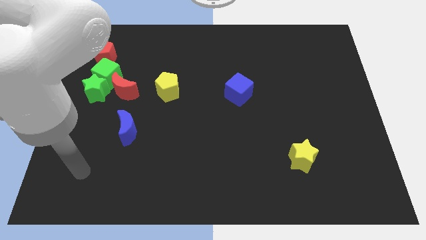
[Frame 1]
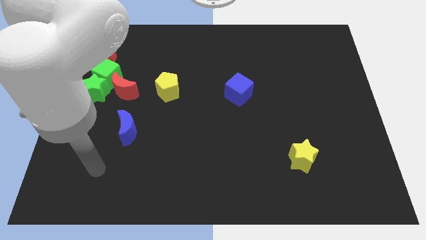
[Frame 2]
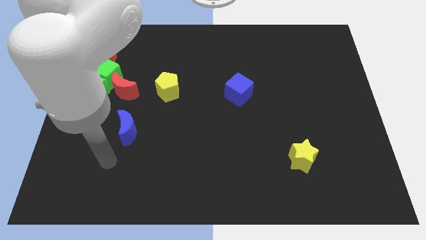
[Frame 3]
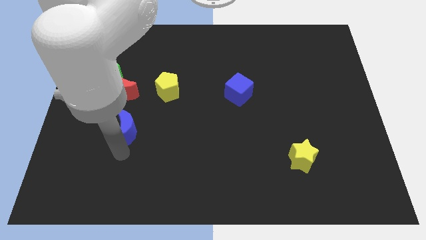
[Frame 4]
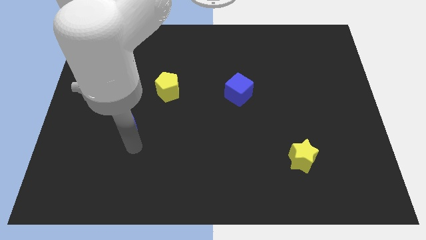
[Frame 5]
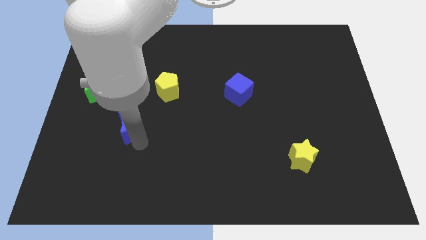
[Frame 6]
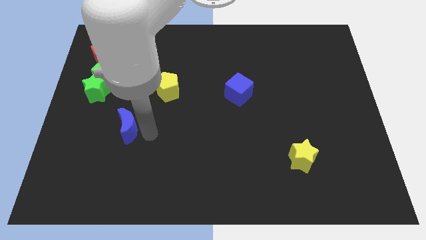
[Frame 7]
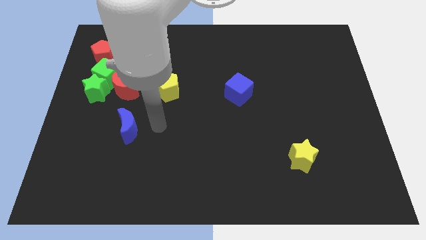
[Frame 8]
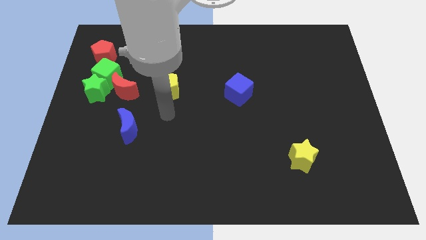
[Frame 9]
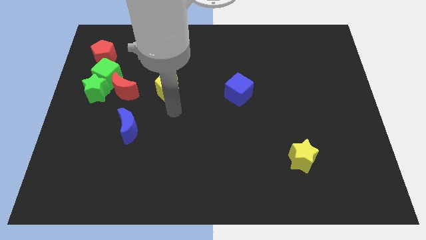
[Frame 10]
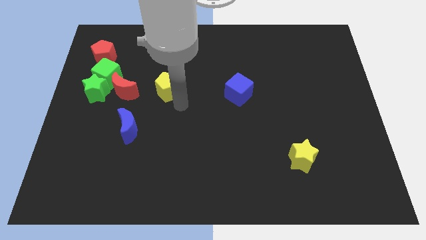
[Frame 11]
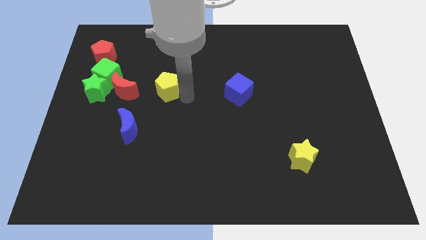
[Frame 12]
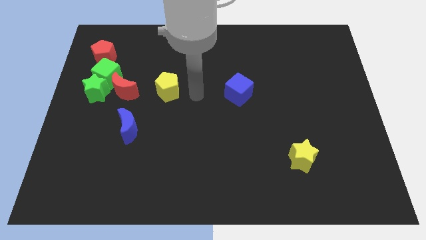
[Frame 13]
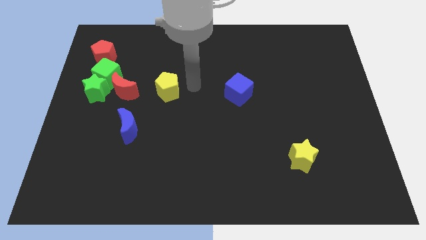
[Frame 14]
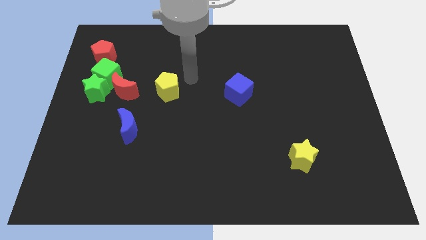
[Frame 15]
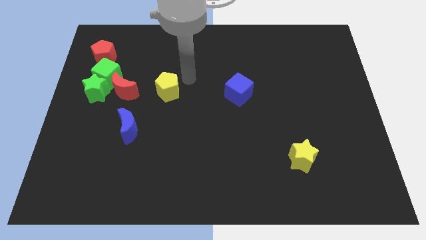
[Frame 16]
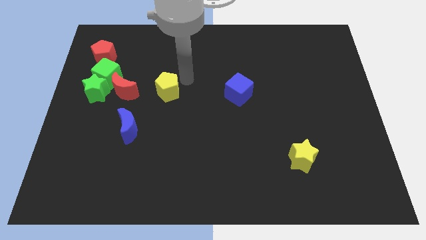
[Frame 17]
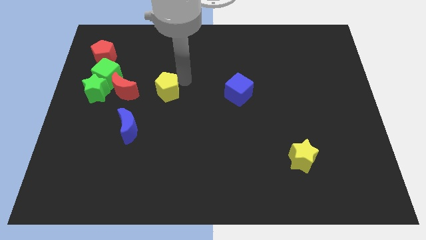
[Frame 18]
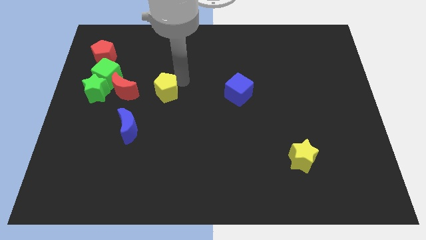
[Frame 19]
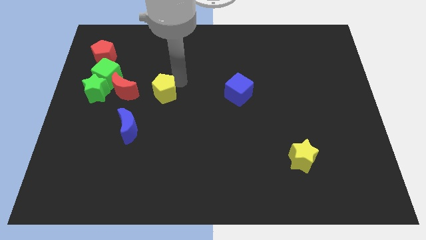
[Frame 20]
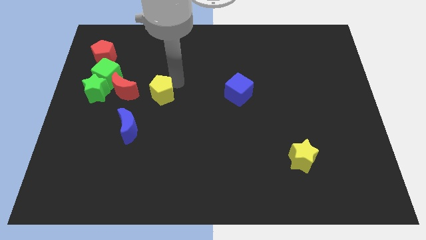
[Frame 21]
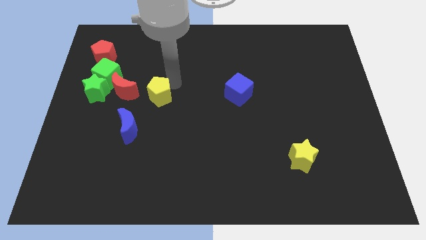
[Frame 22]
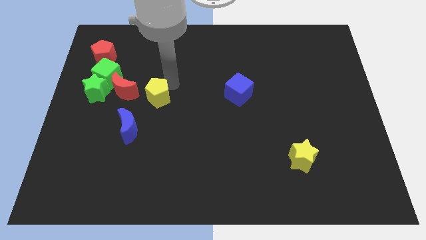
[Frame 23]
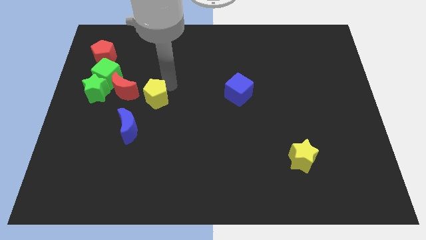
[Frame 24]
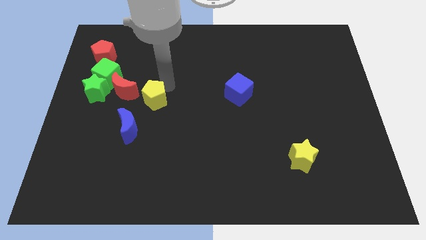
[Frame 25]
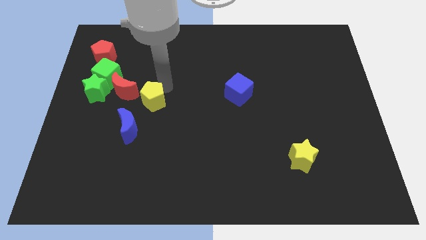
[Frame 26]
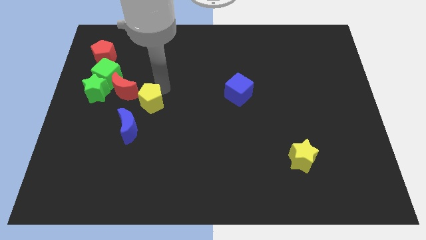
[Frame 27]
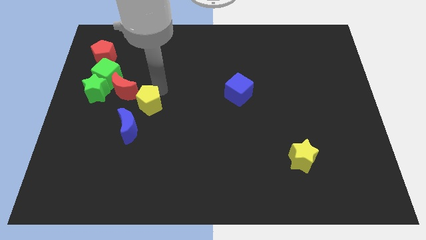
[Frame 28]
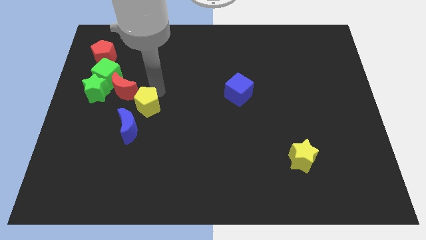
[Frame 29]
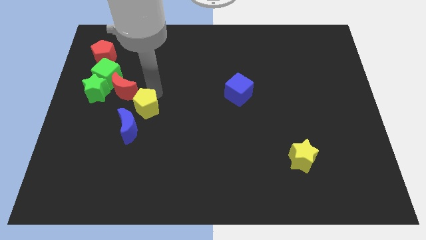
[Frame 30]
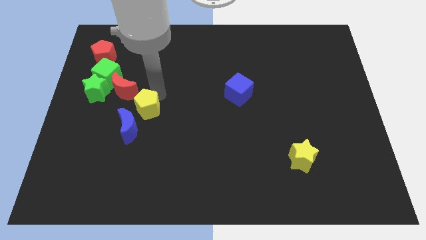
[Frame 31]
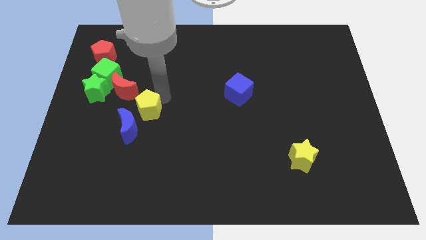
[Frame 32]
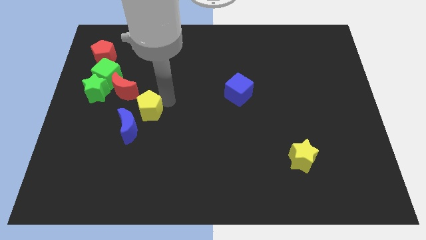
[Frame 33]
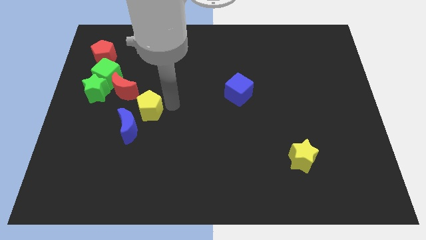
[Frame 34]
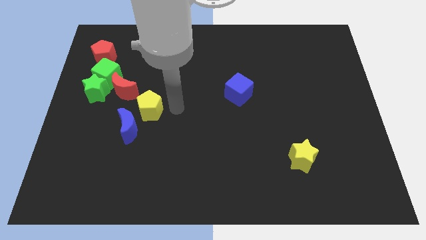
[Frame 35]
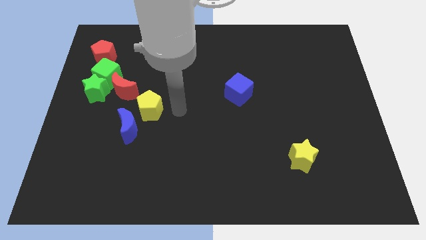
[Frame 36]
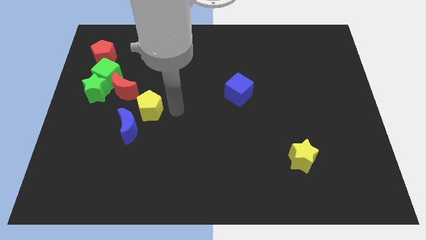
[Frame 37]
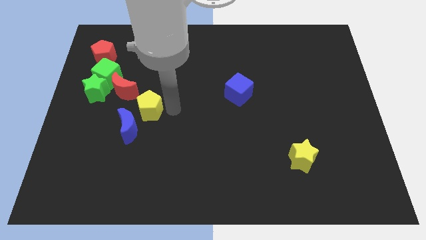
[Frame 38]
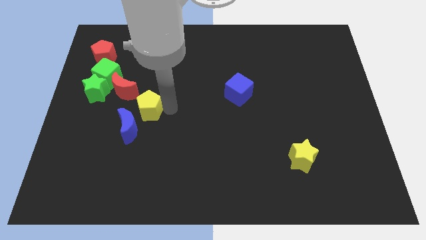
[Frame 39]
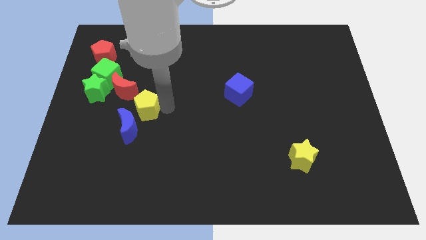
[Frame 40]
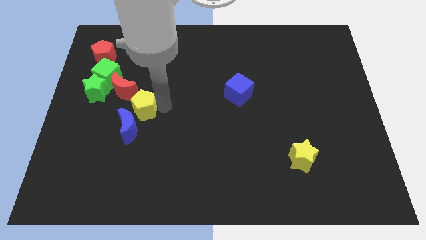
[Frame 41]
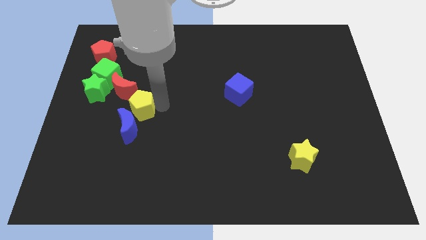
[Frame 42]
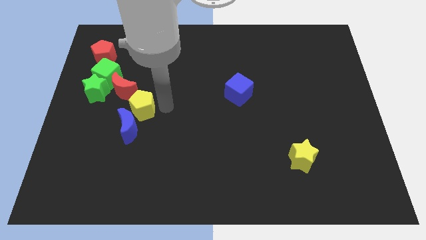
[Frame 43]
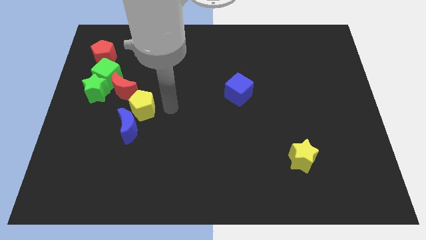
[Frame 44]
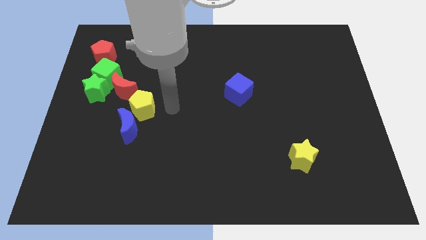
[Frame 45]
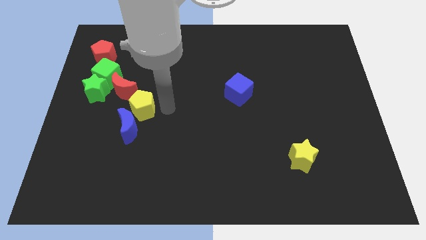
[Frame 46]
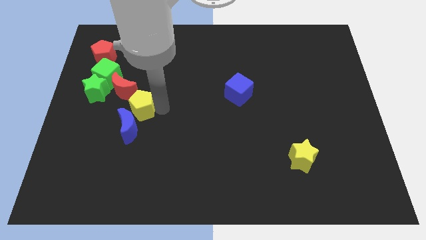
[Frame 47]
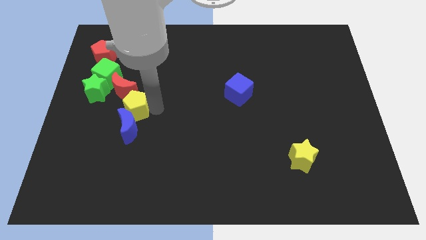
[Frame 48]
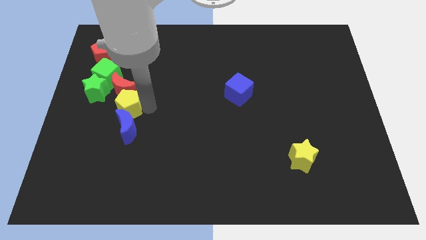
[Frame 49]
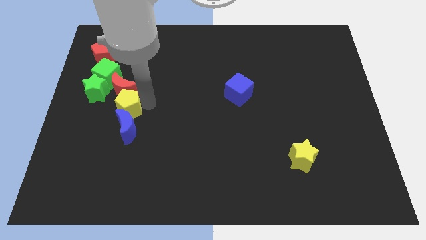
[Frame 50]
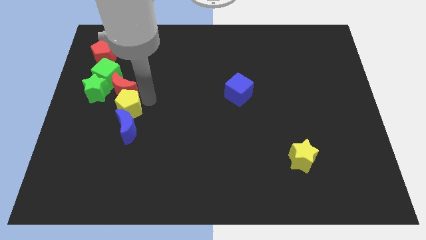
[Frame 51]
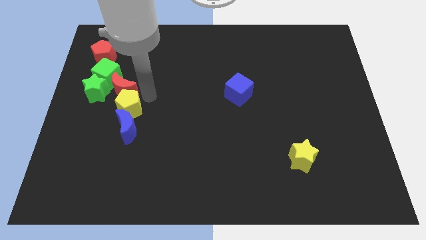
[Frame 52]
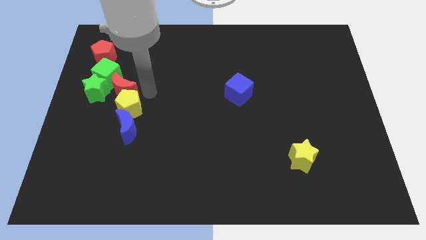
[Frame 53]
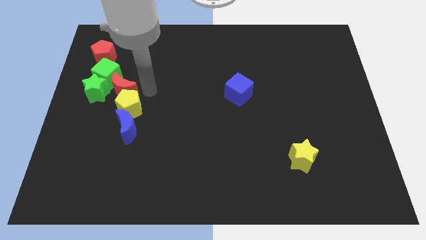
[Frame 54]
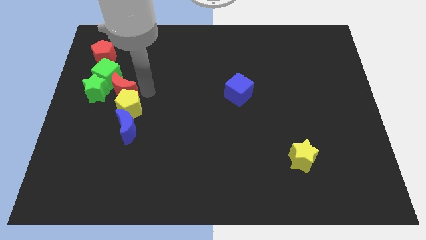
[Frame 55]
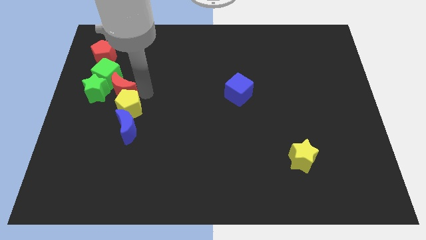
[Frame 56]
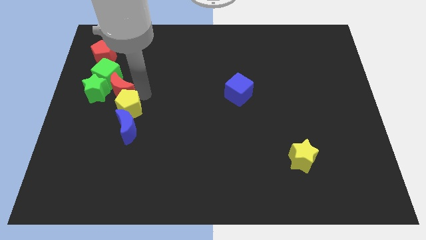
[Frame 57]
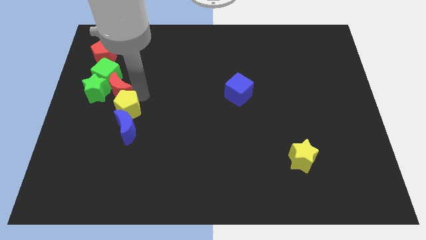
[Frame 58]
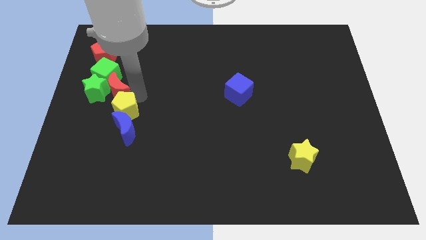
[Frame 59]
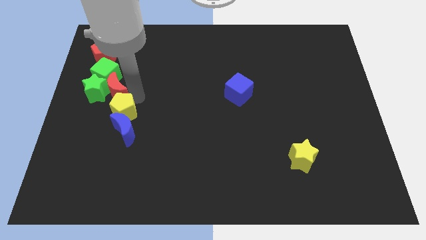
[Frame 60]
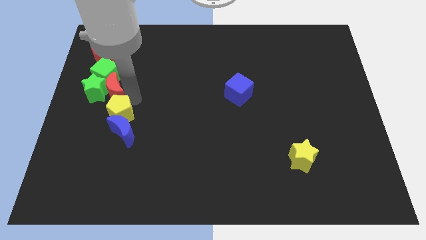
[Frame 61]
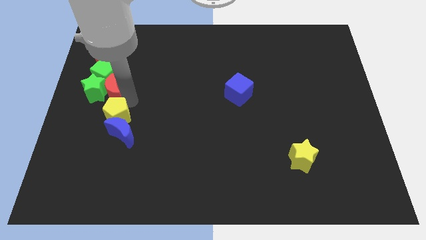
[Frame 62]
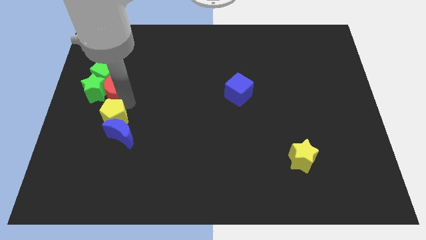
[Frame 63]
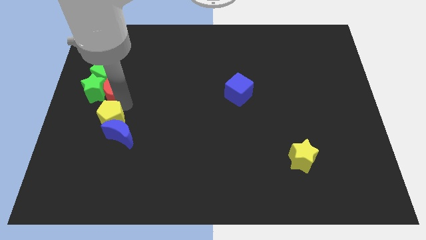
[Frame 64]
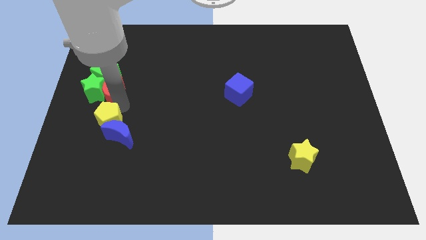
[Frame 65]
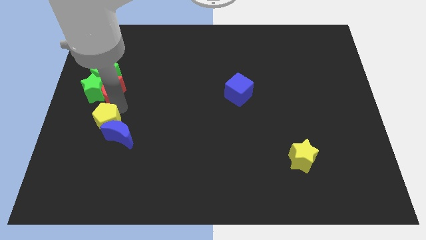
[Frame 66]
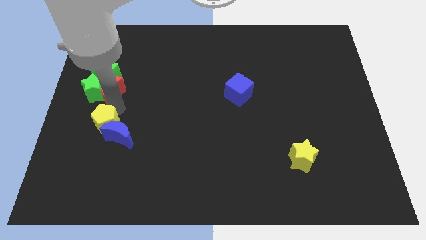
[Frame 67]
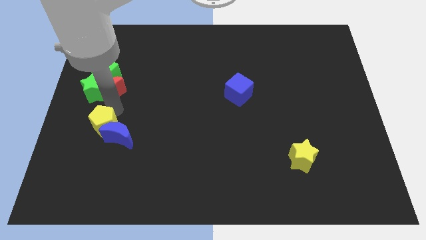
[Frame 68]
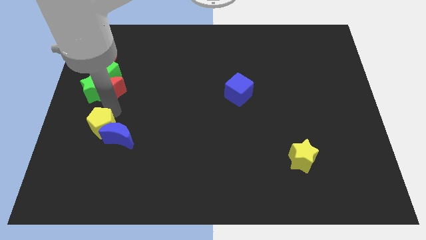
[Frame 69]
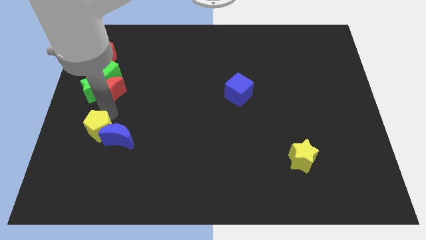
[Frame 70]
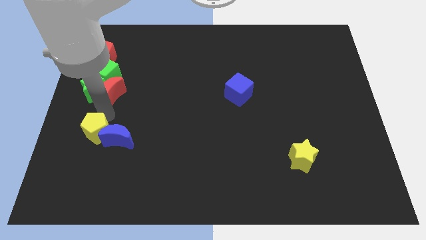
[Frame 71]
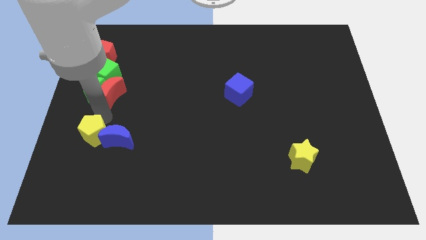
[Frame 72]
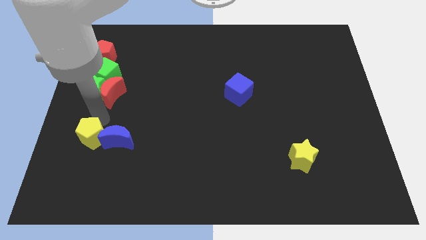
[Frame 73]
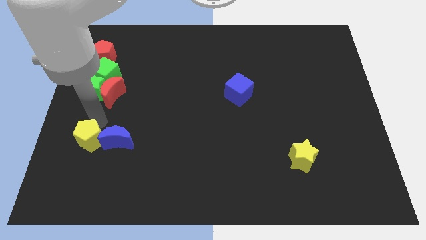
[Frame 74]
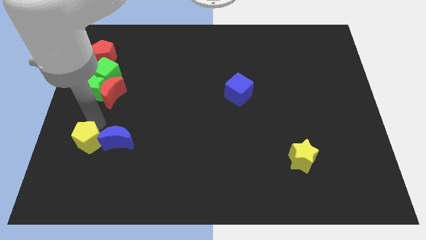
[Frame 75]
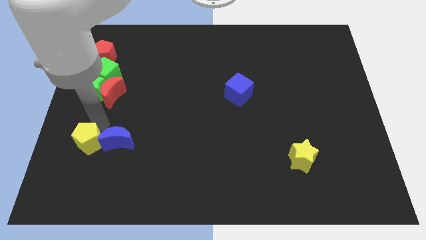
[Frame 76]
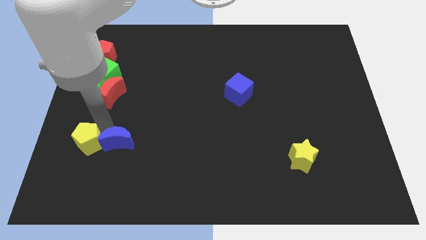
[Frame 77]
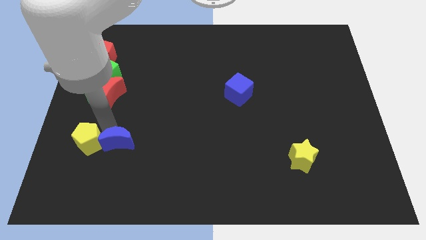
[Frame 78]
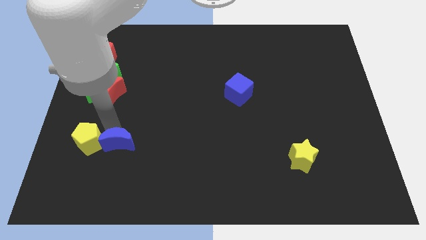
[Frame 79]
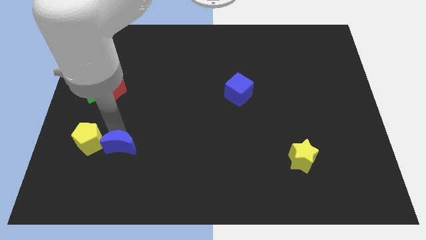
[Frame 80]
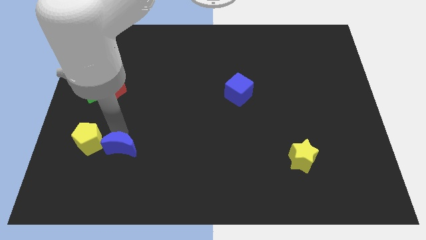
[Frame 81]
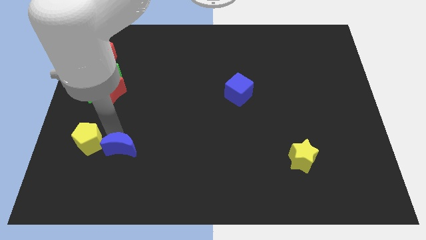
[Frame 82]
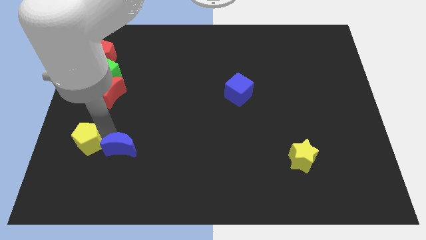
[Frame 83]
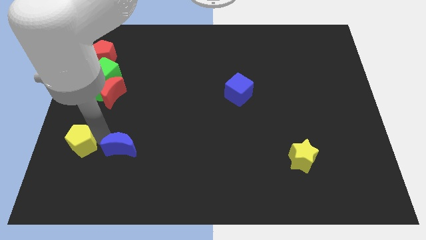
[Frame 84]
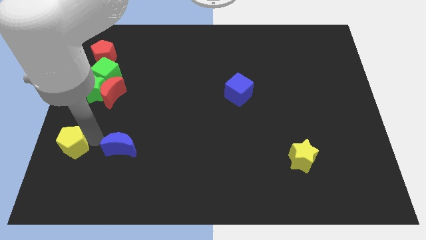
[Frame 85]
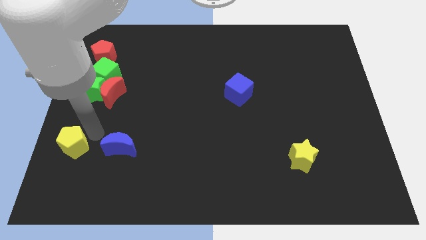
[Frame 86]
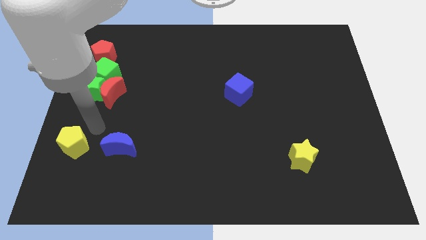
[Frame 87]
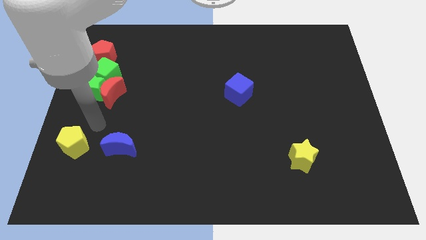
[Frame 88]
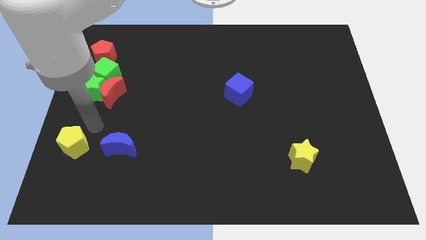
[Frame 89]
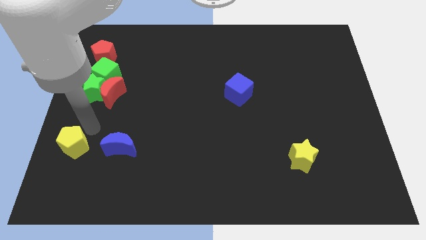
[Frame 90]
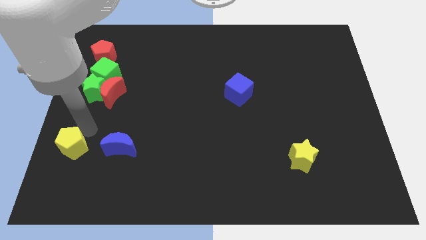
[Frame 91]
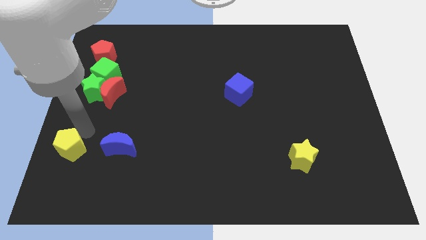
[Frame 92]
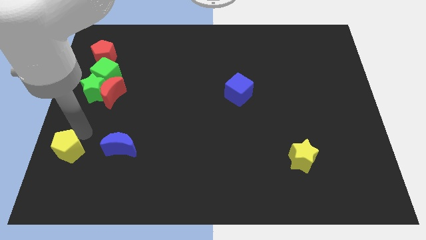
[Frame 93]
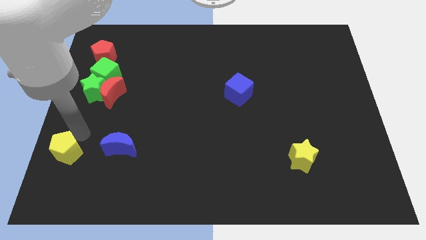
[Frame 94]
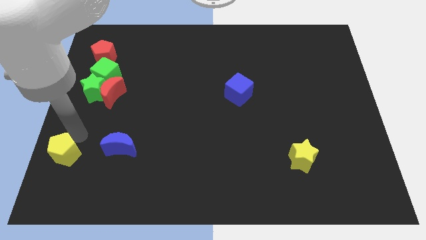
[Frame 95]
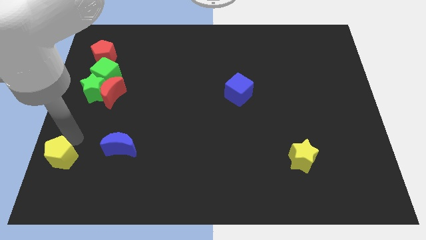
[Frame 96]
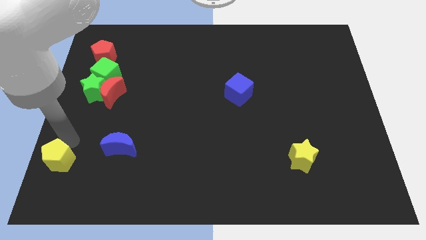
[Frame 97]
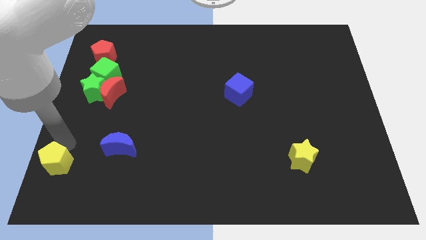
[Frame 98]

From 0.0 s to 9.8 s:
push the yellow pentagon to the lower left corner
